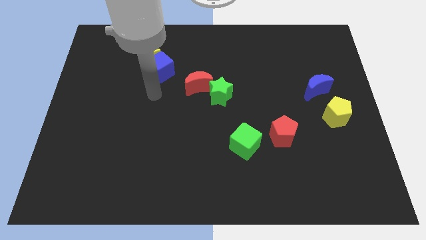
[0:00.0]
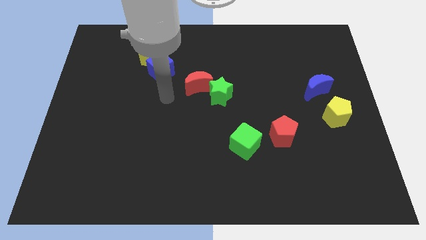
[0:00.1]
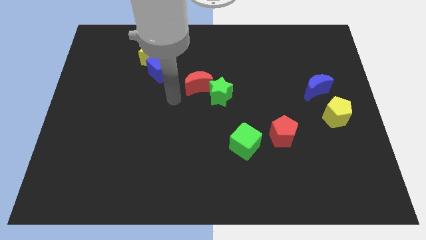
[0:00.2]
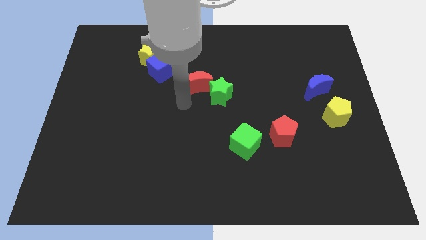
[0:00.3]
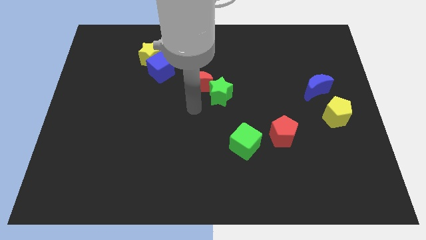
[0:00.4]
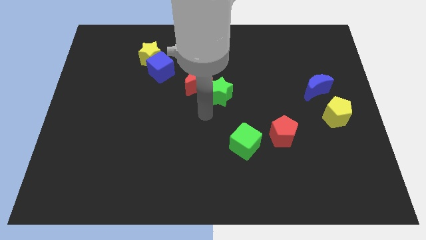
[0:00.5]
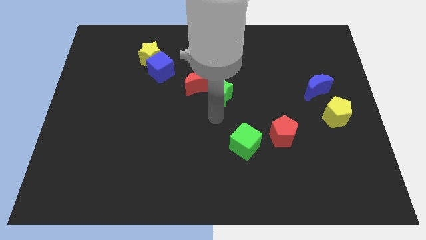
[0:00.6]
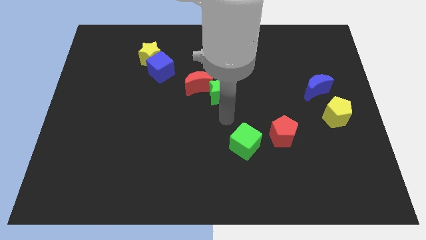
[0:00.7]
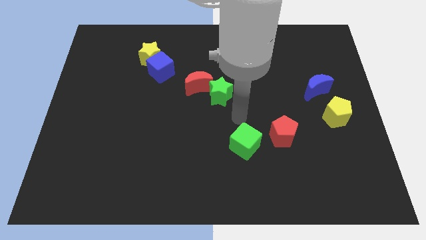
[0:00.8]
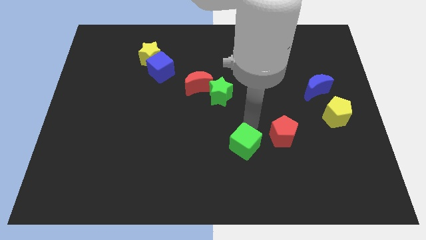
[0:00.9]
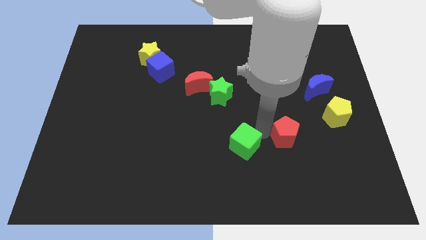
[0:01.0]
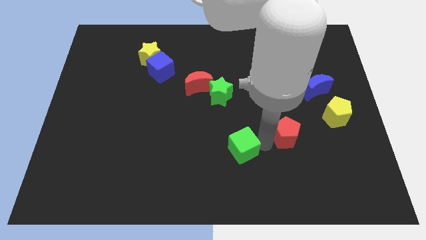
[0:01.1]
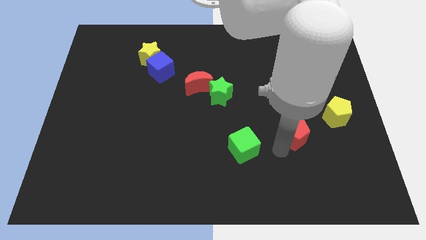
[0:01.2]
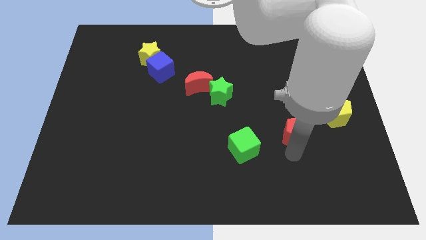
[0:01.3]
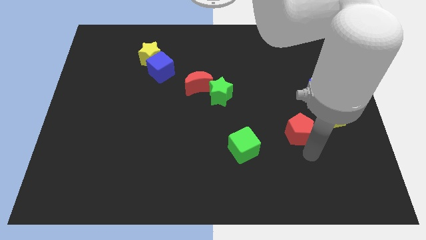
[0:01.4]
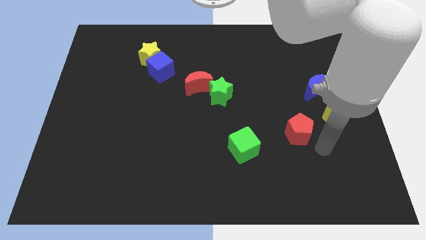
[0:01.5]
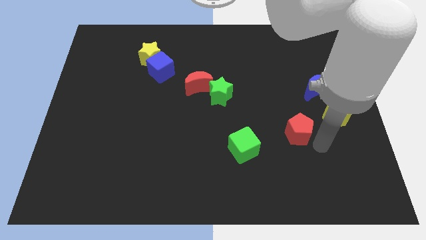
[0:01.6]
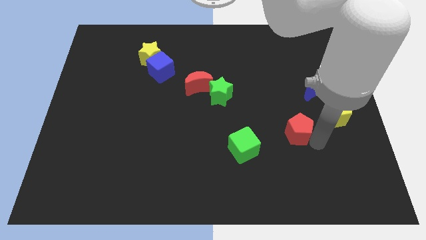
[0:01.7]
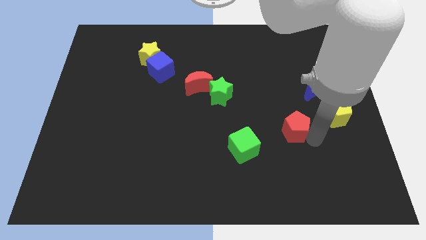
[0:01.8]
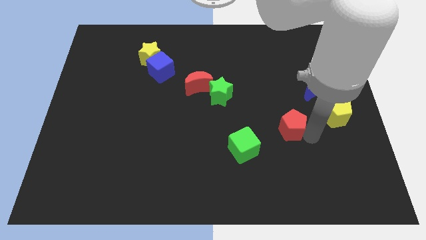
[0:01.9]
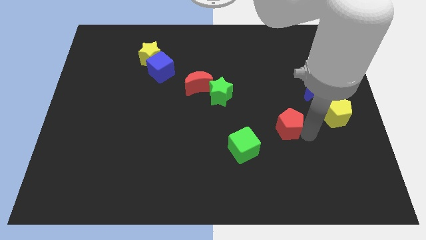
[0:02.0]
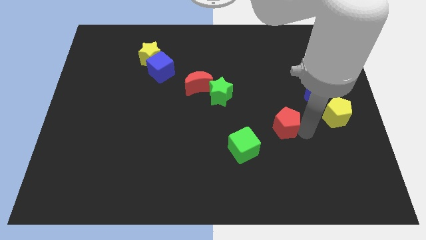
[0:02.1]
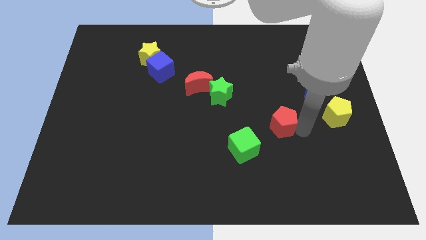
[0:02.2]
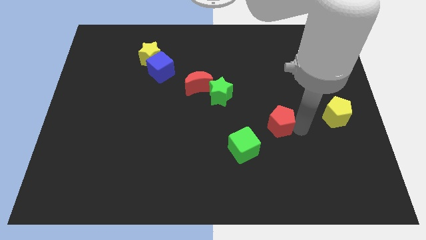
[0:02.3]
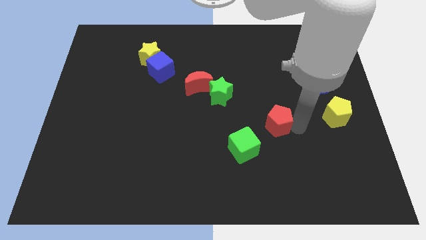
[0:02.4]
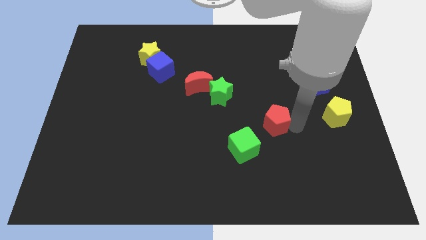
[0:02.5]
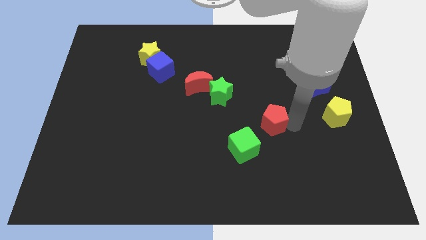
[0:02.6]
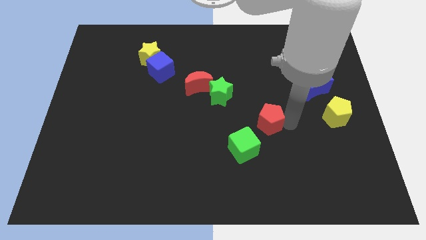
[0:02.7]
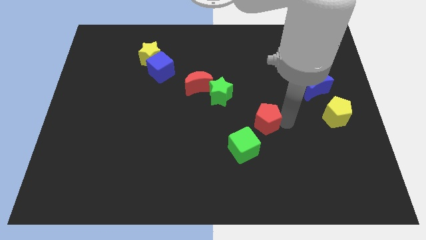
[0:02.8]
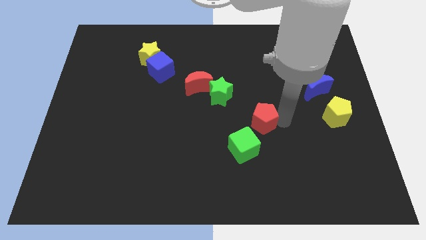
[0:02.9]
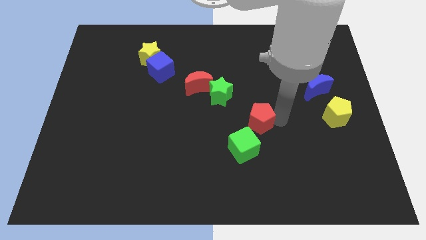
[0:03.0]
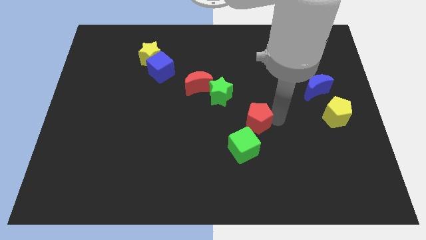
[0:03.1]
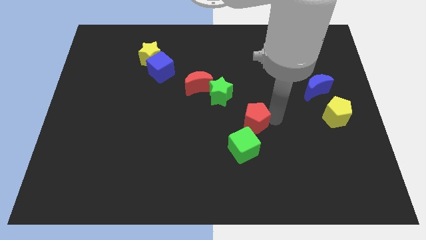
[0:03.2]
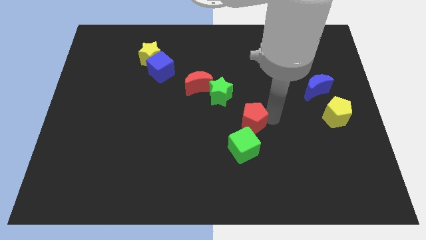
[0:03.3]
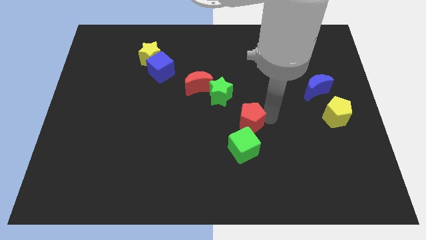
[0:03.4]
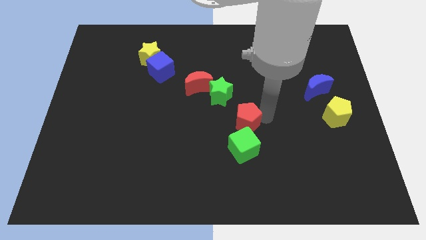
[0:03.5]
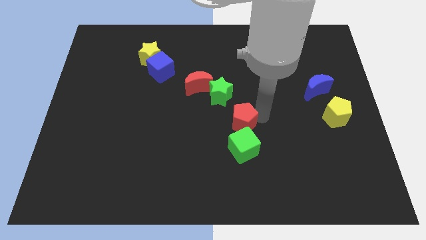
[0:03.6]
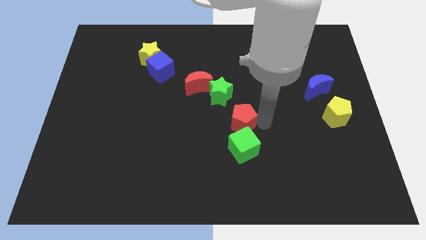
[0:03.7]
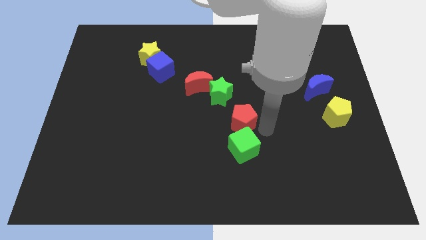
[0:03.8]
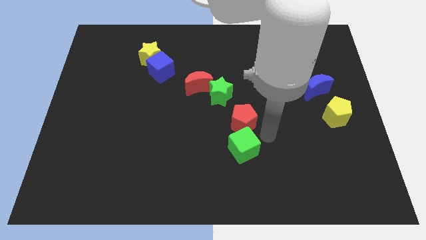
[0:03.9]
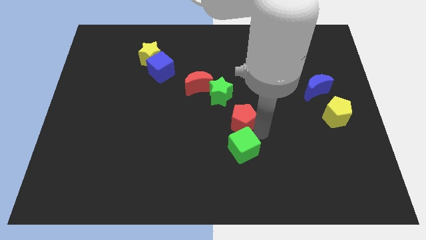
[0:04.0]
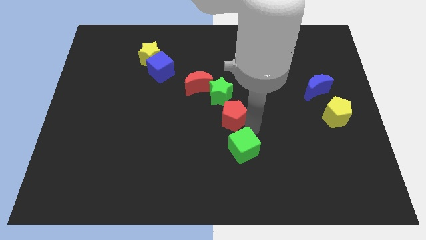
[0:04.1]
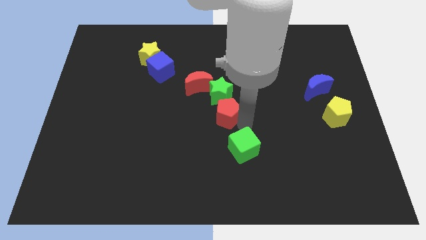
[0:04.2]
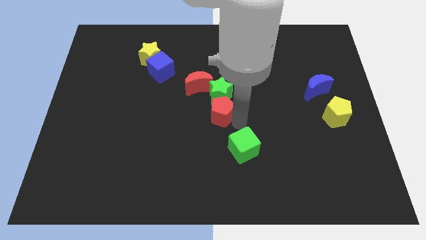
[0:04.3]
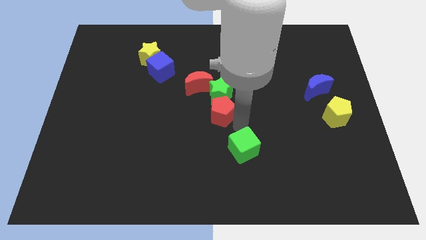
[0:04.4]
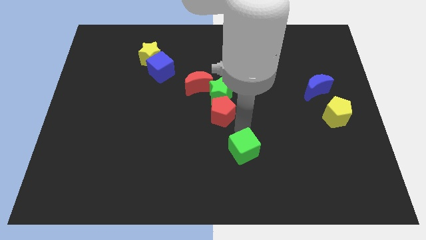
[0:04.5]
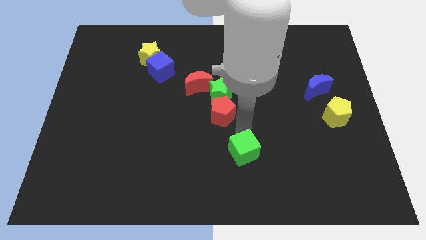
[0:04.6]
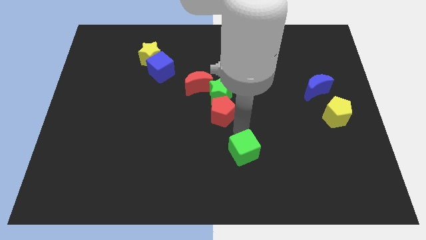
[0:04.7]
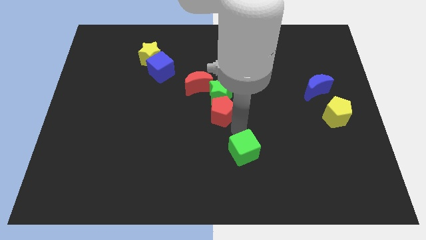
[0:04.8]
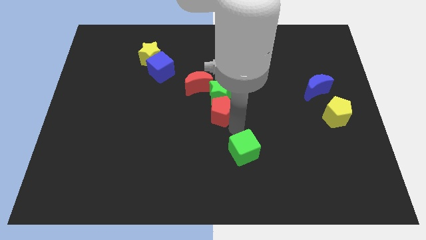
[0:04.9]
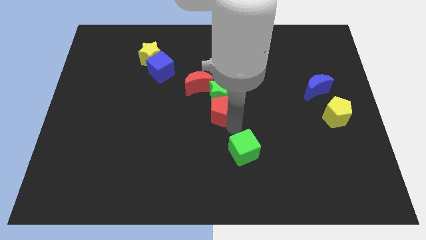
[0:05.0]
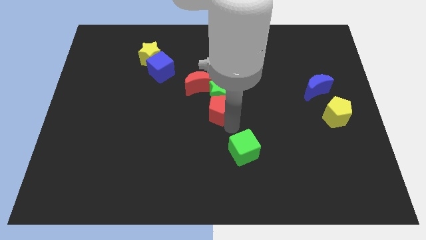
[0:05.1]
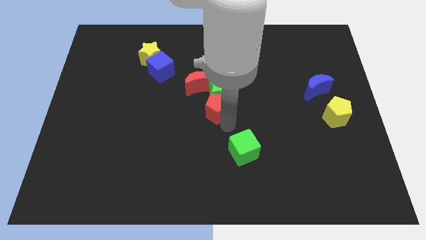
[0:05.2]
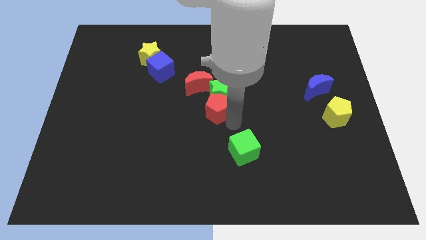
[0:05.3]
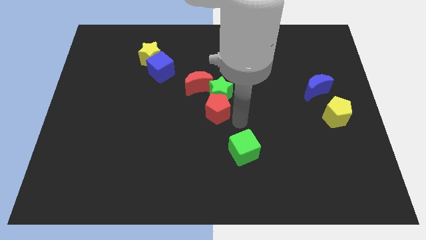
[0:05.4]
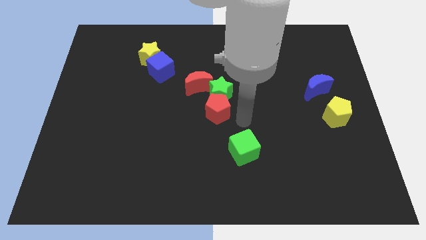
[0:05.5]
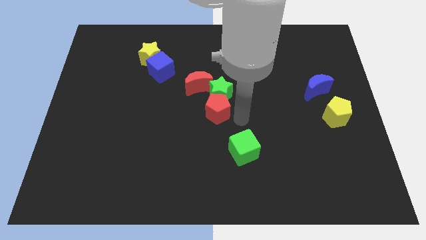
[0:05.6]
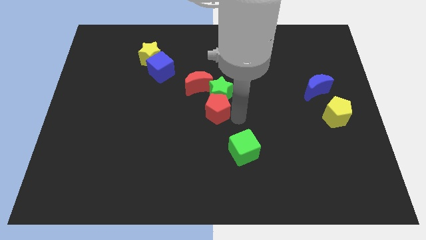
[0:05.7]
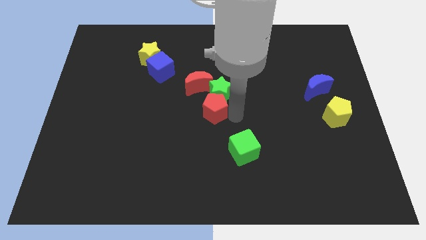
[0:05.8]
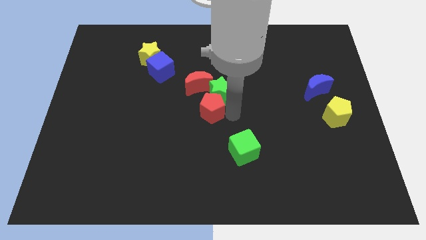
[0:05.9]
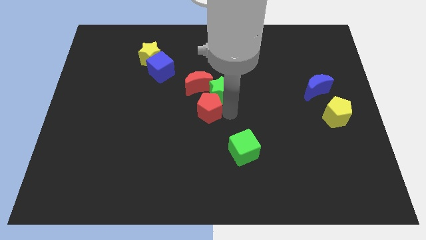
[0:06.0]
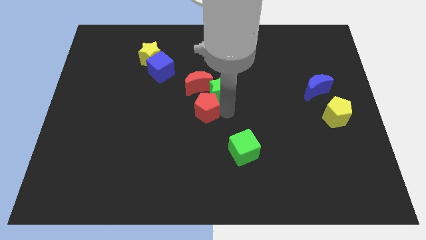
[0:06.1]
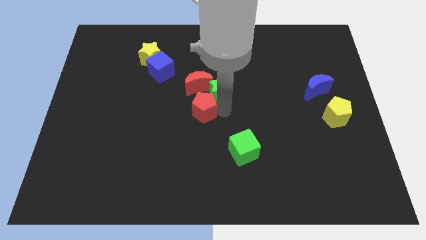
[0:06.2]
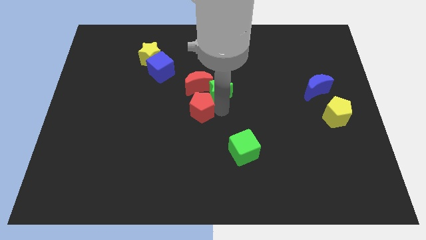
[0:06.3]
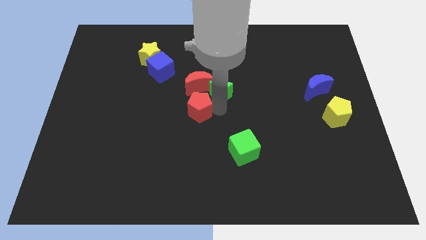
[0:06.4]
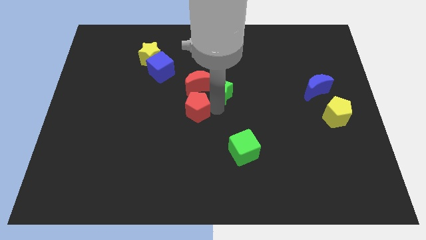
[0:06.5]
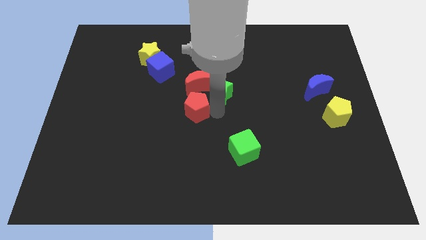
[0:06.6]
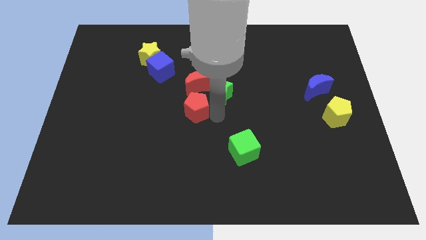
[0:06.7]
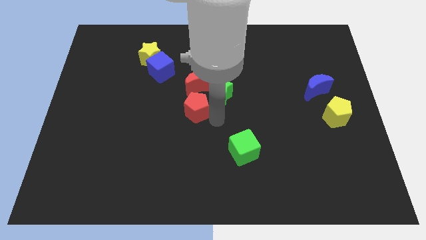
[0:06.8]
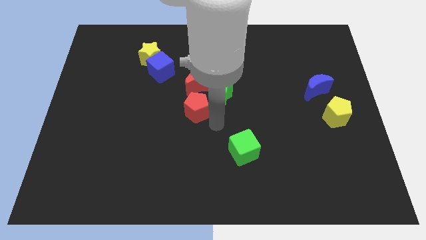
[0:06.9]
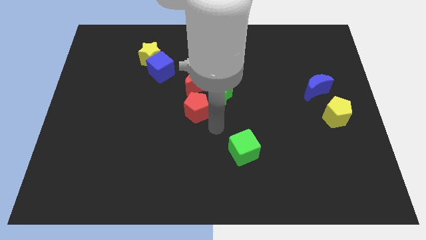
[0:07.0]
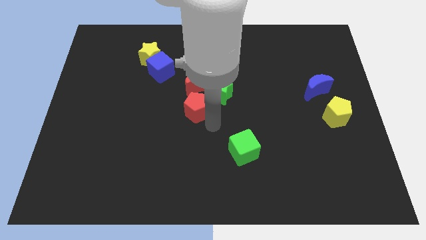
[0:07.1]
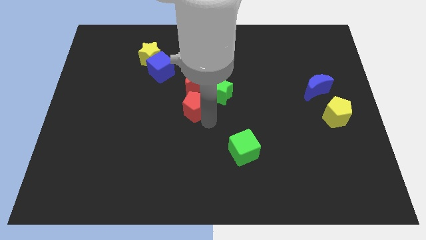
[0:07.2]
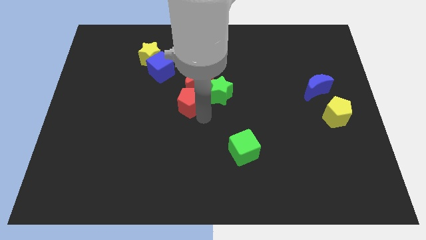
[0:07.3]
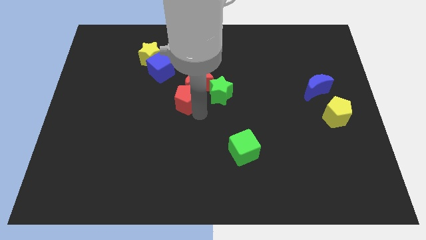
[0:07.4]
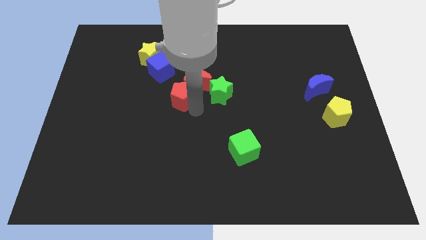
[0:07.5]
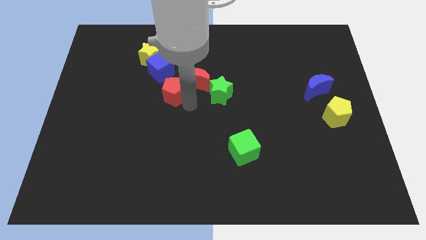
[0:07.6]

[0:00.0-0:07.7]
push the red pentagon left of the red moon
